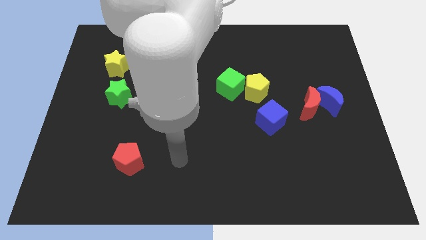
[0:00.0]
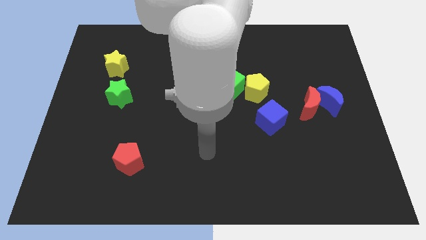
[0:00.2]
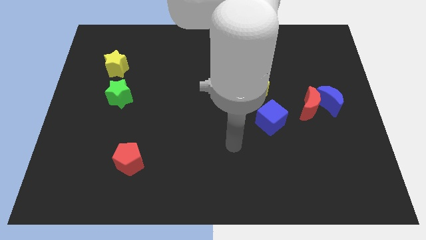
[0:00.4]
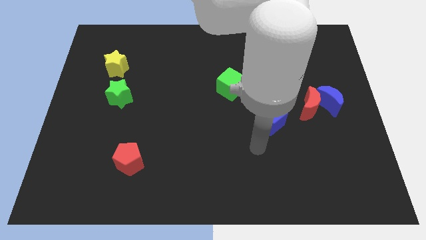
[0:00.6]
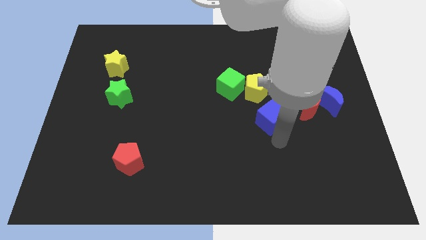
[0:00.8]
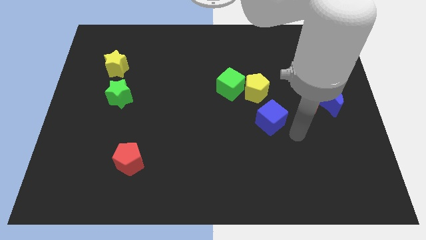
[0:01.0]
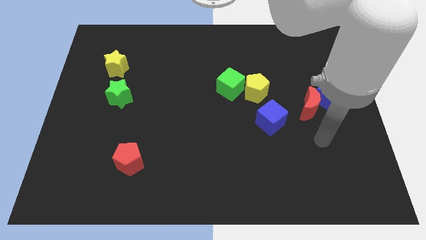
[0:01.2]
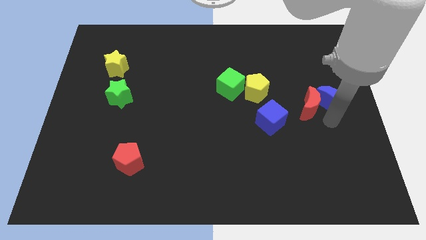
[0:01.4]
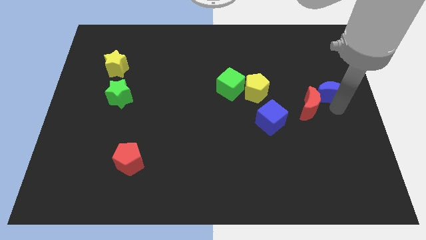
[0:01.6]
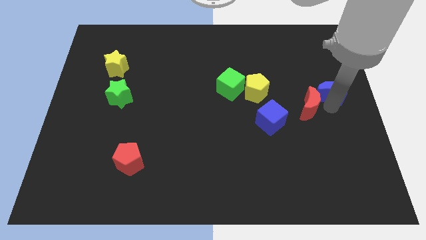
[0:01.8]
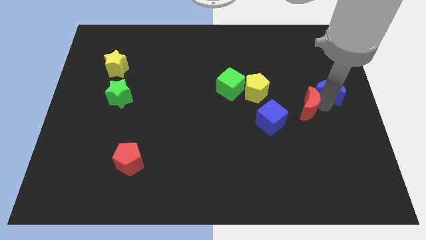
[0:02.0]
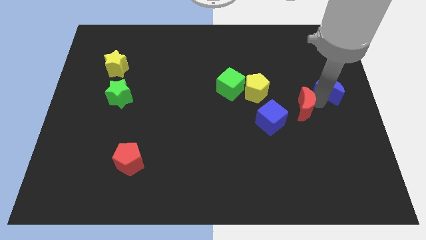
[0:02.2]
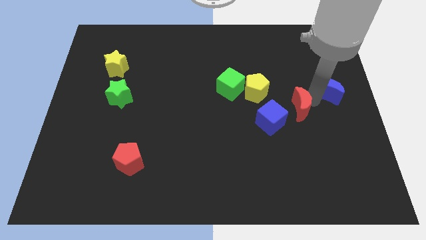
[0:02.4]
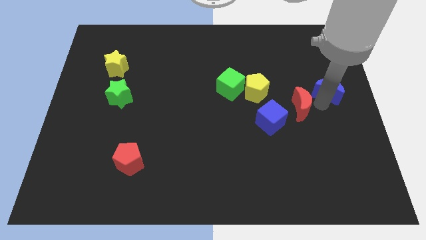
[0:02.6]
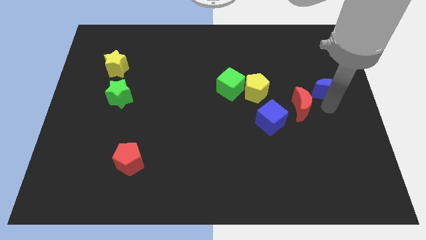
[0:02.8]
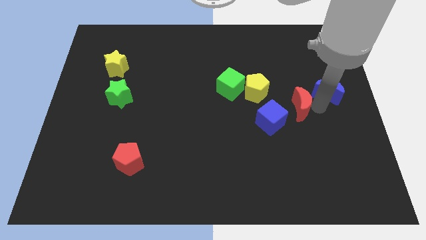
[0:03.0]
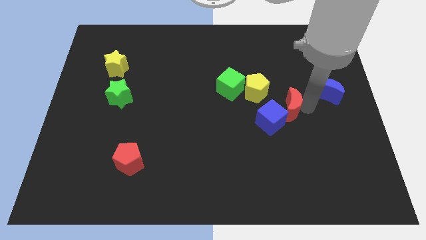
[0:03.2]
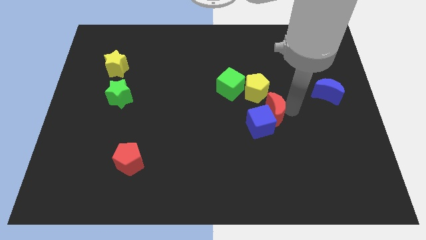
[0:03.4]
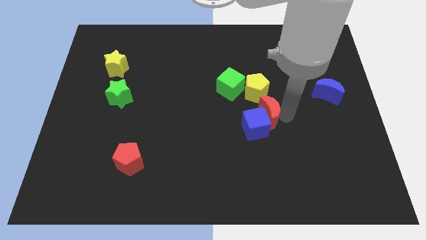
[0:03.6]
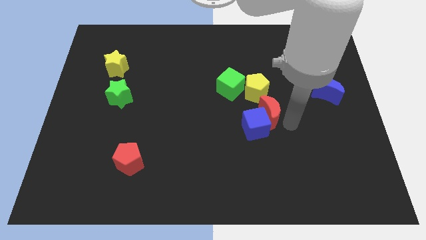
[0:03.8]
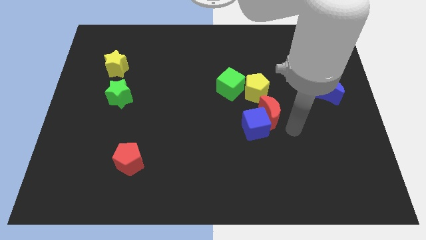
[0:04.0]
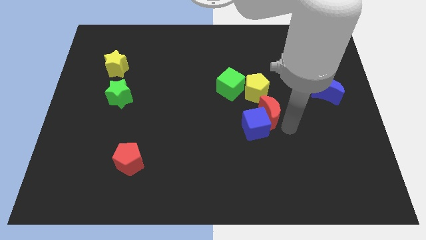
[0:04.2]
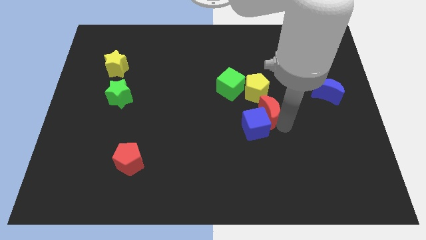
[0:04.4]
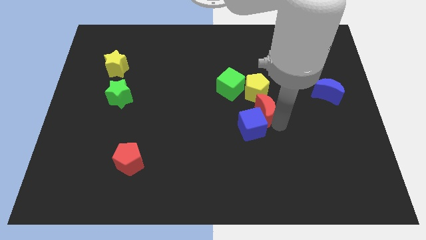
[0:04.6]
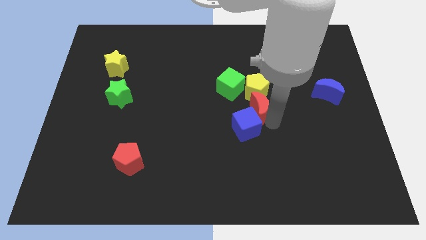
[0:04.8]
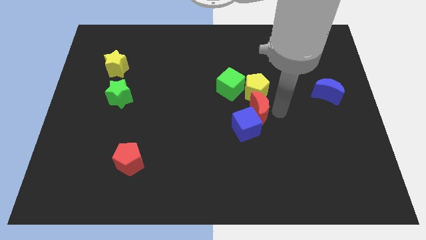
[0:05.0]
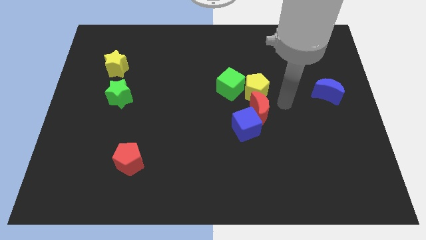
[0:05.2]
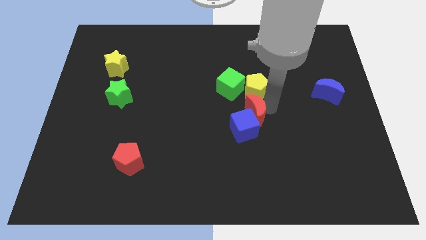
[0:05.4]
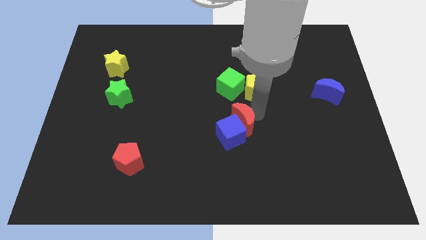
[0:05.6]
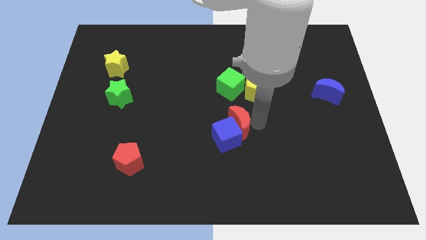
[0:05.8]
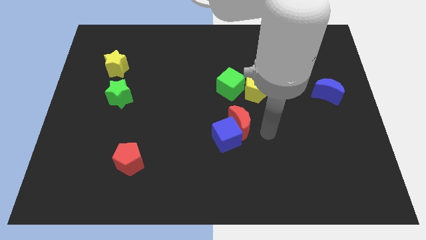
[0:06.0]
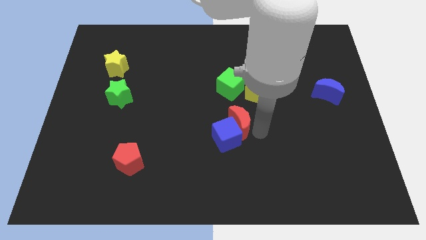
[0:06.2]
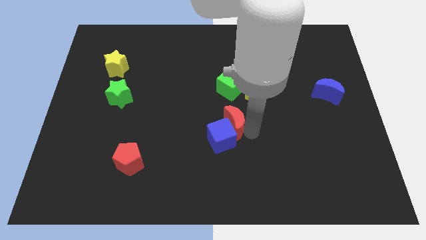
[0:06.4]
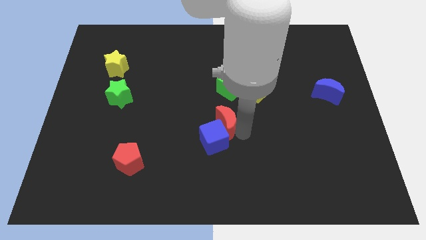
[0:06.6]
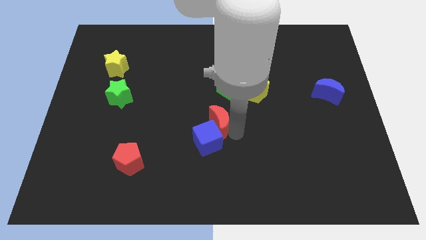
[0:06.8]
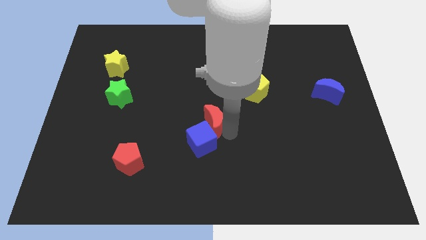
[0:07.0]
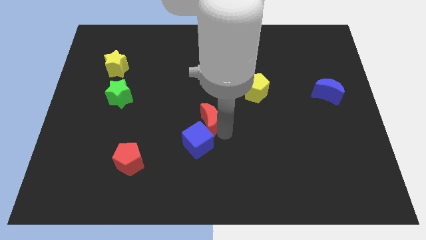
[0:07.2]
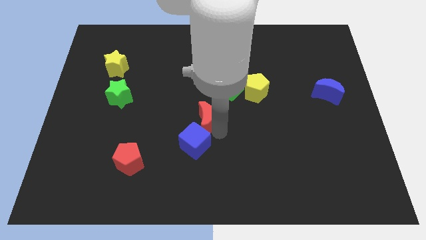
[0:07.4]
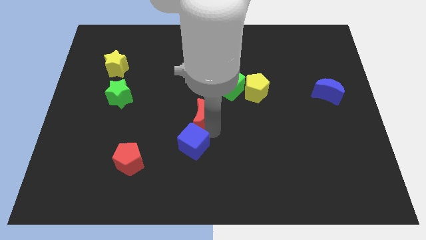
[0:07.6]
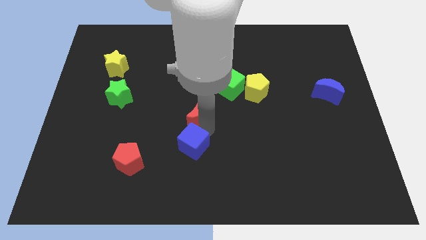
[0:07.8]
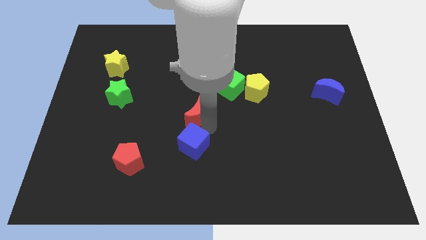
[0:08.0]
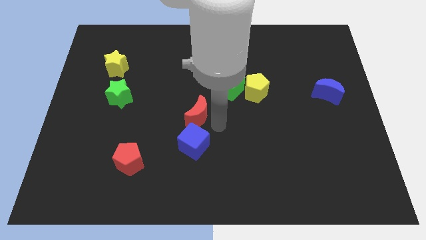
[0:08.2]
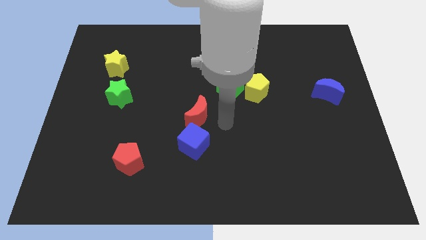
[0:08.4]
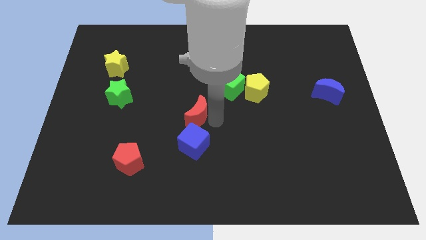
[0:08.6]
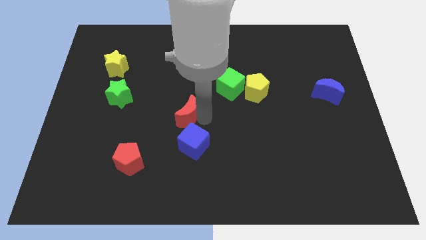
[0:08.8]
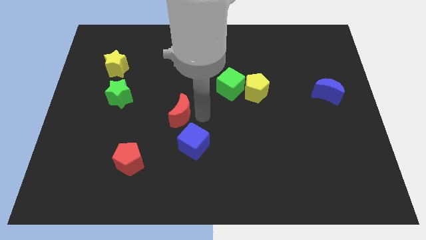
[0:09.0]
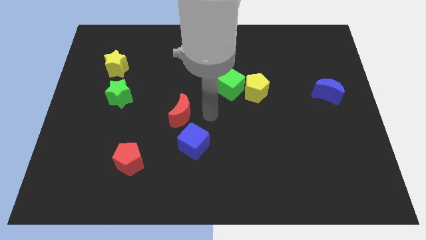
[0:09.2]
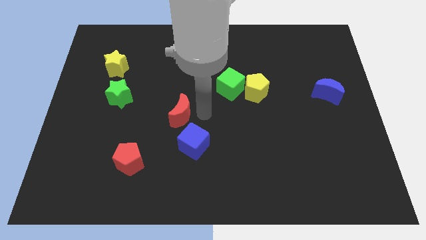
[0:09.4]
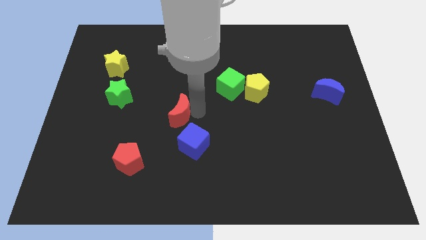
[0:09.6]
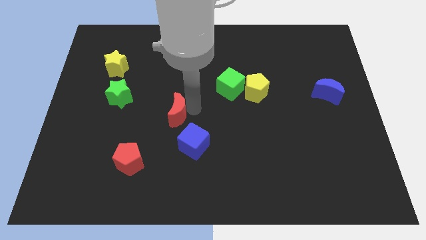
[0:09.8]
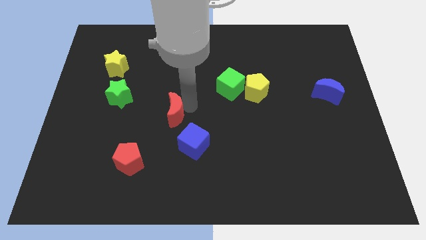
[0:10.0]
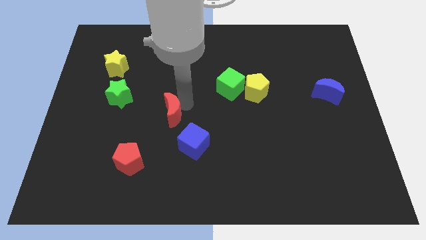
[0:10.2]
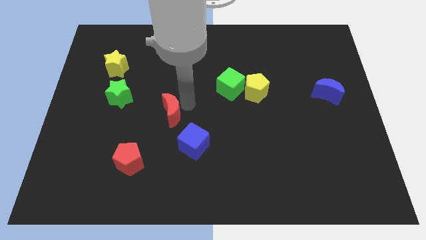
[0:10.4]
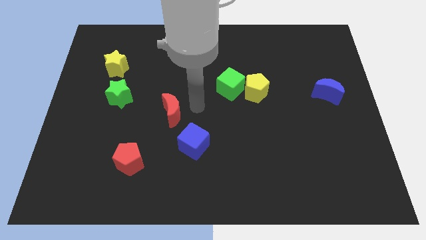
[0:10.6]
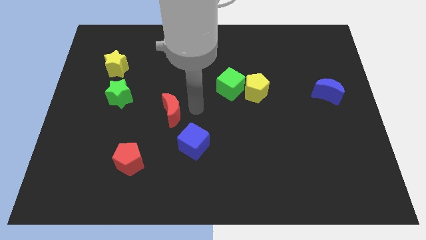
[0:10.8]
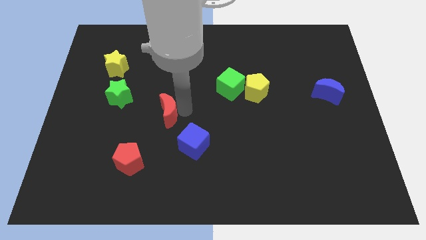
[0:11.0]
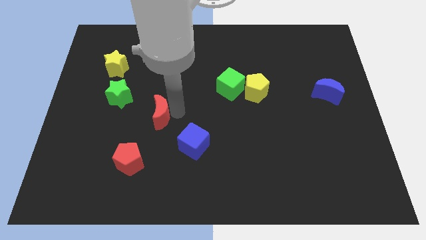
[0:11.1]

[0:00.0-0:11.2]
put the red moon to the bottom right side of the green star

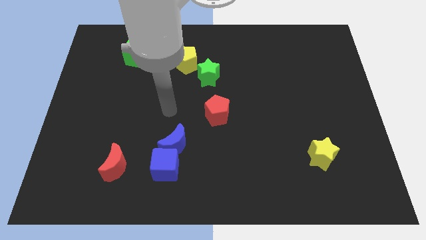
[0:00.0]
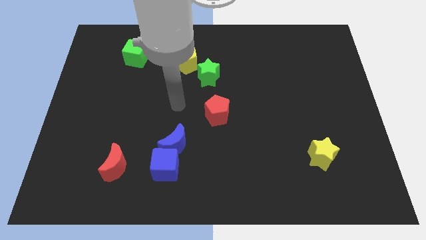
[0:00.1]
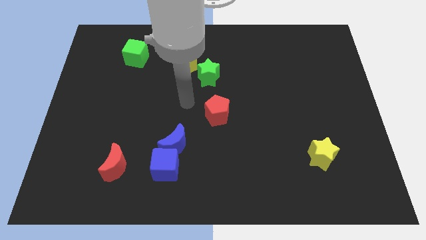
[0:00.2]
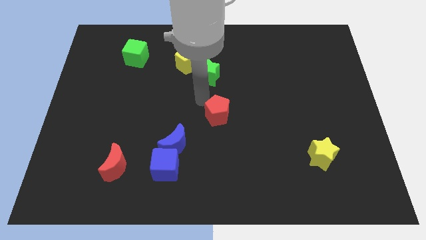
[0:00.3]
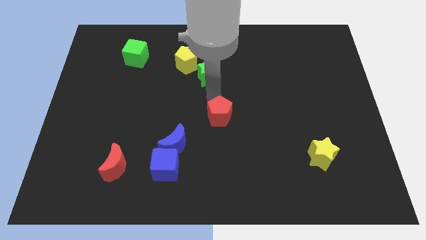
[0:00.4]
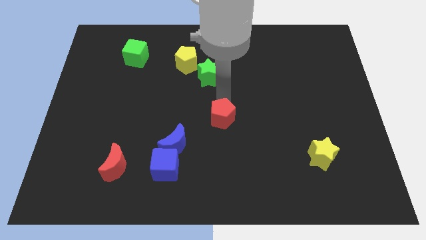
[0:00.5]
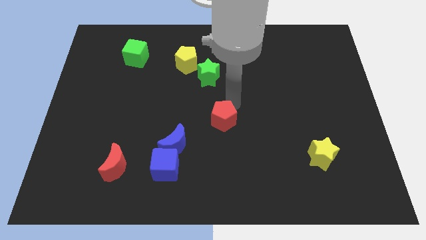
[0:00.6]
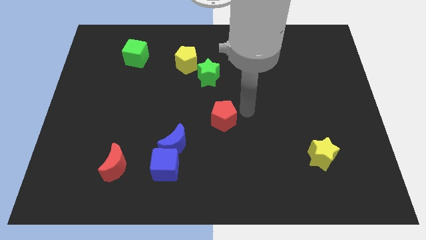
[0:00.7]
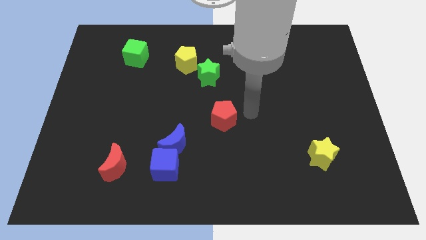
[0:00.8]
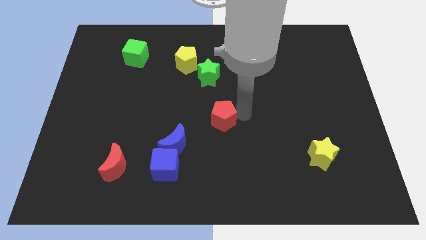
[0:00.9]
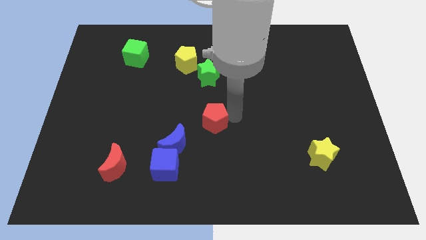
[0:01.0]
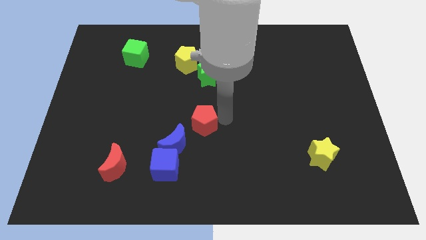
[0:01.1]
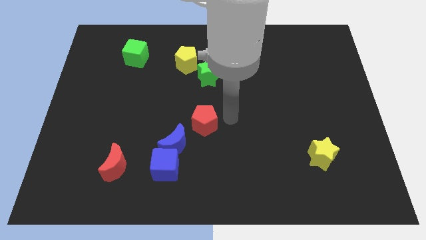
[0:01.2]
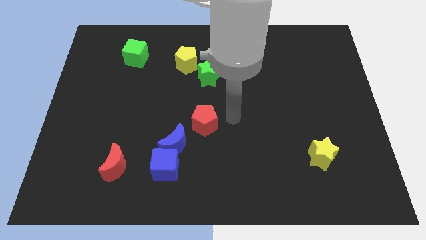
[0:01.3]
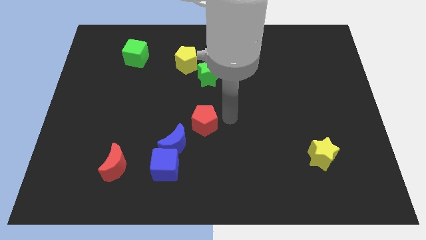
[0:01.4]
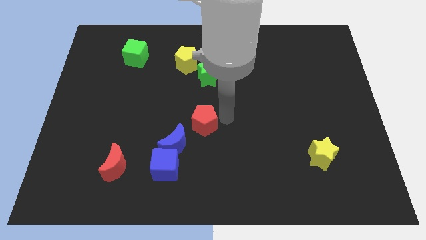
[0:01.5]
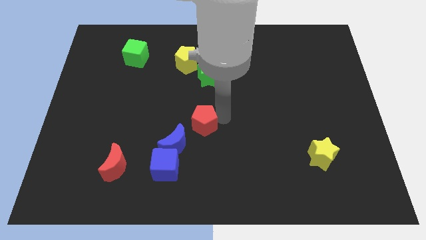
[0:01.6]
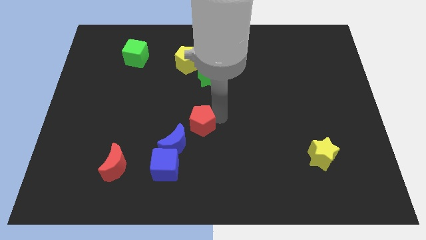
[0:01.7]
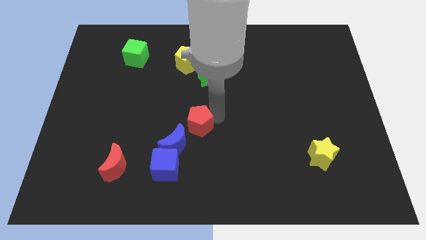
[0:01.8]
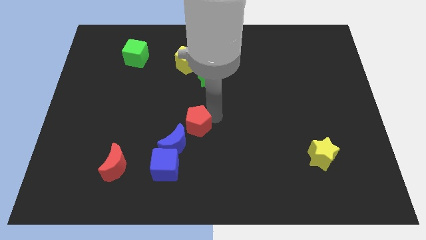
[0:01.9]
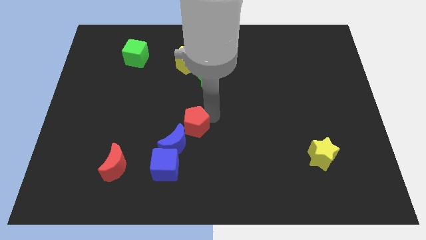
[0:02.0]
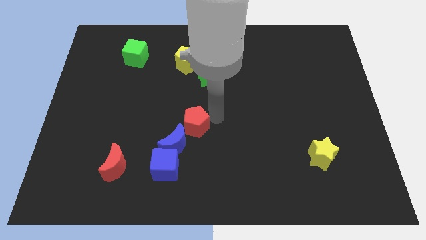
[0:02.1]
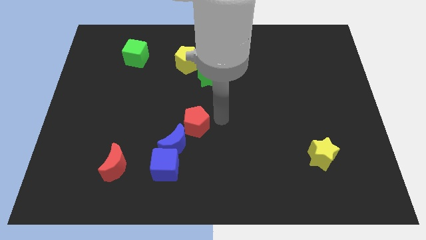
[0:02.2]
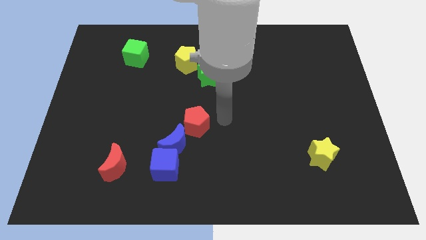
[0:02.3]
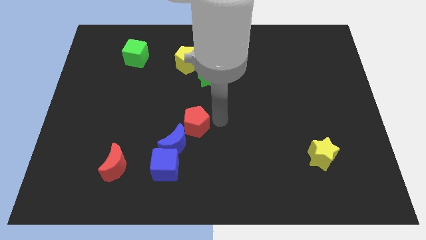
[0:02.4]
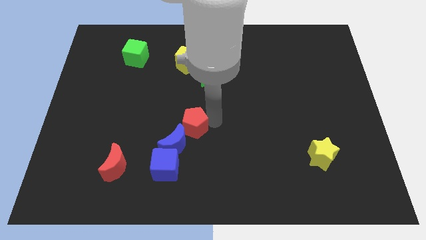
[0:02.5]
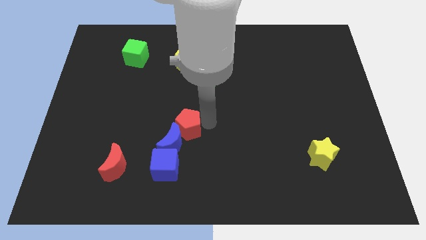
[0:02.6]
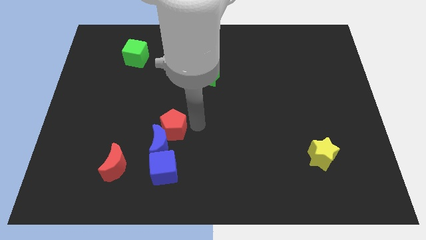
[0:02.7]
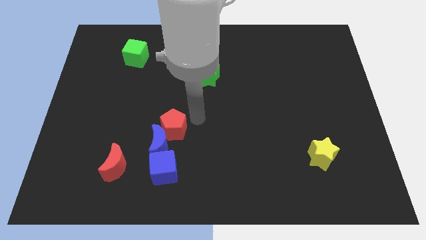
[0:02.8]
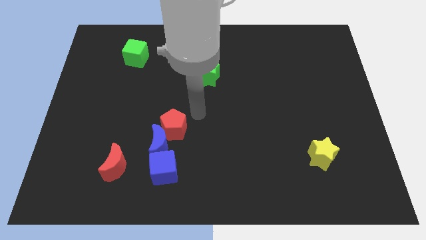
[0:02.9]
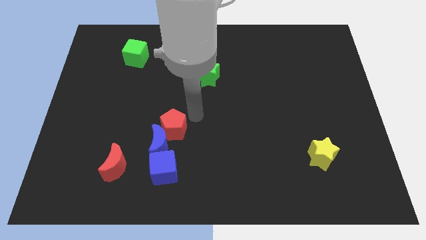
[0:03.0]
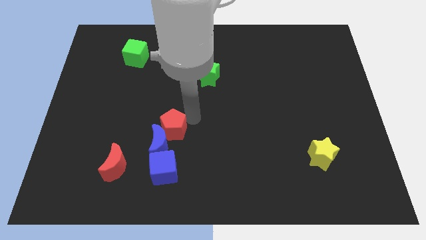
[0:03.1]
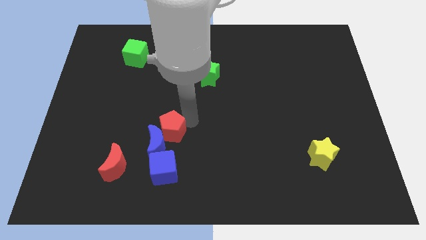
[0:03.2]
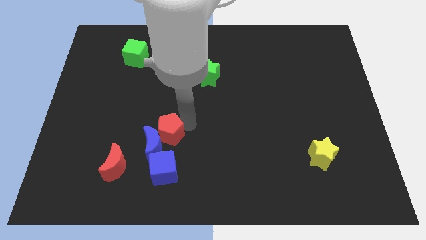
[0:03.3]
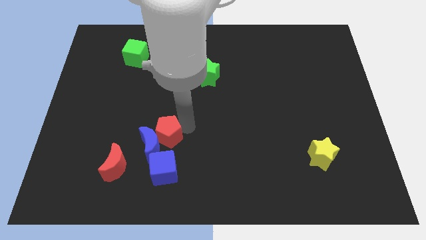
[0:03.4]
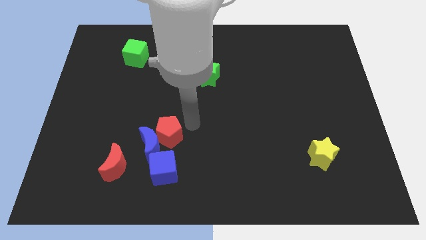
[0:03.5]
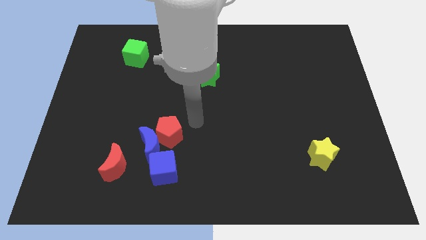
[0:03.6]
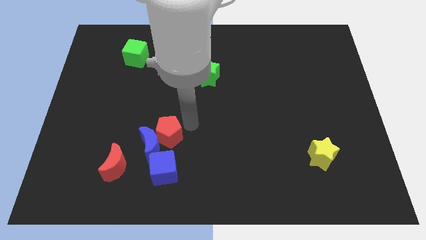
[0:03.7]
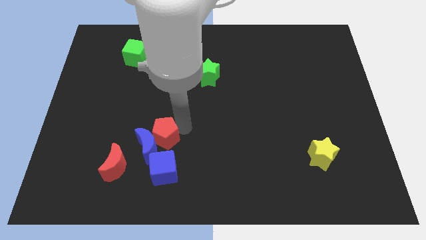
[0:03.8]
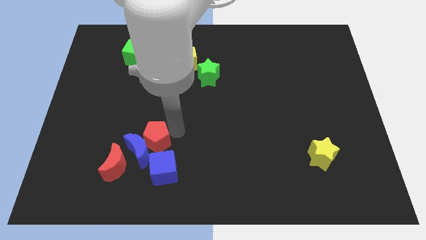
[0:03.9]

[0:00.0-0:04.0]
push the red pentagon to the top left of the blue cube
